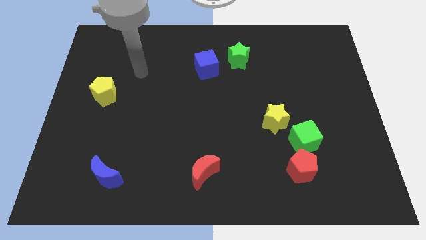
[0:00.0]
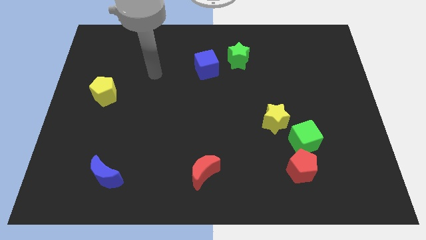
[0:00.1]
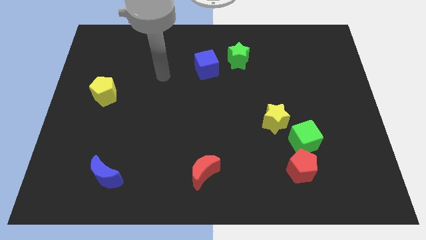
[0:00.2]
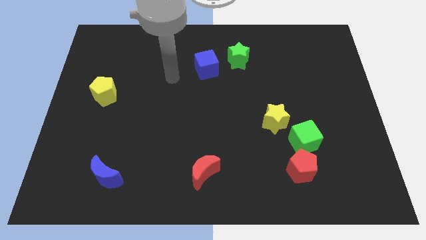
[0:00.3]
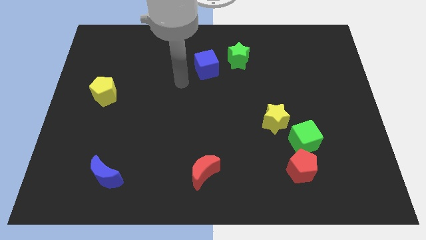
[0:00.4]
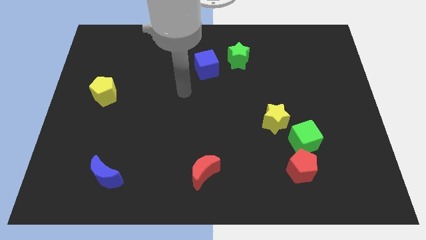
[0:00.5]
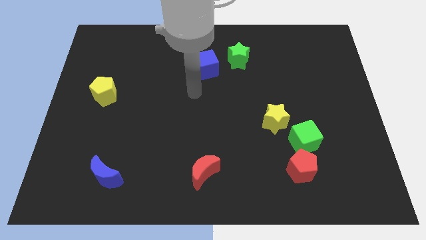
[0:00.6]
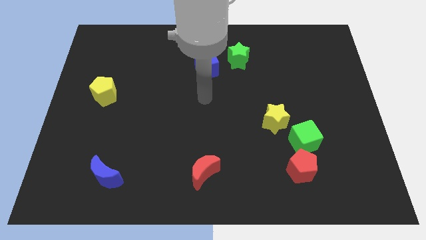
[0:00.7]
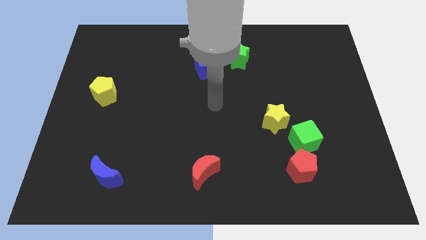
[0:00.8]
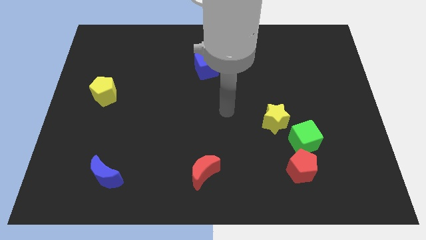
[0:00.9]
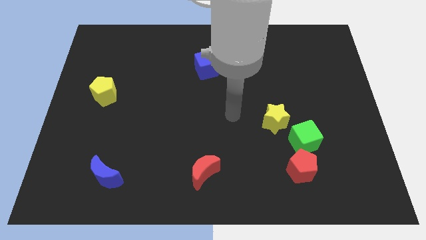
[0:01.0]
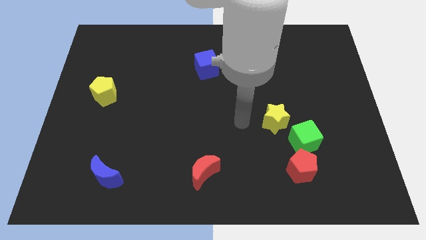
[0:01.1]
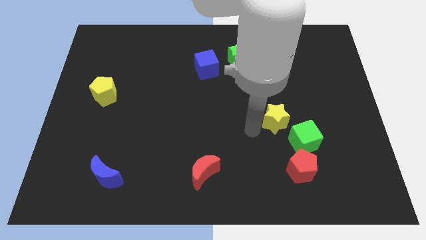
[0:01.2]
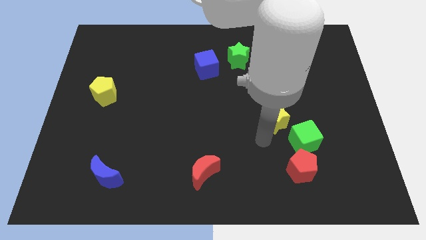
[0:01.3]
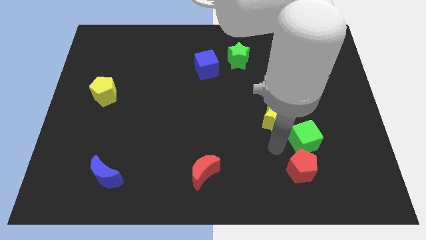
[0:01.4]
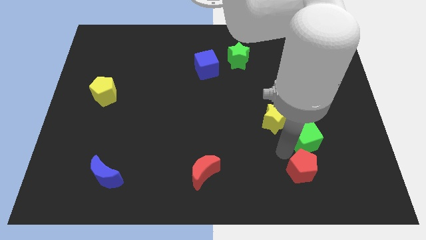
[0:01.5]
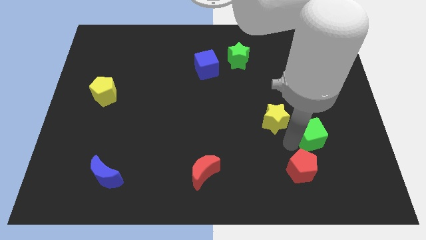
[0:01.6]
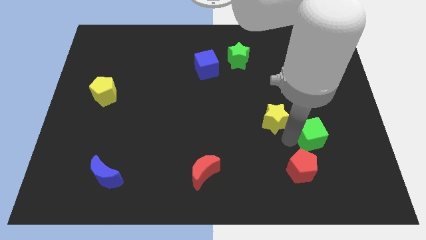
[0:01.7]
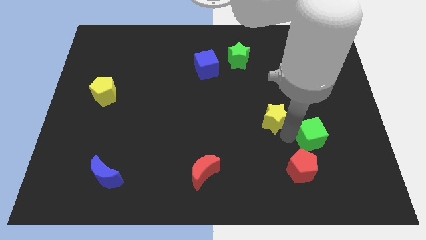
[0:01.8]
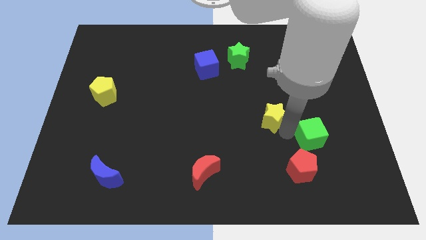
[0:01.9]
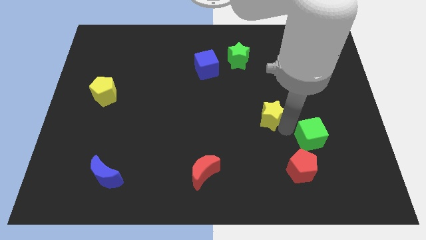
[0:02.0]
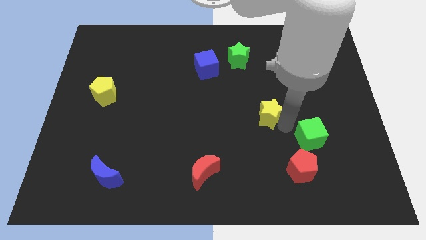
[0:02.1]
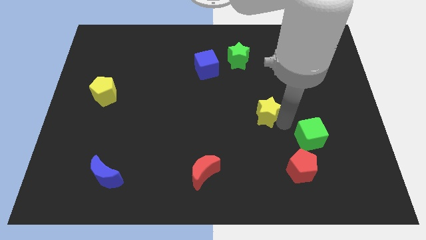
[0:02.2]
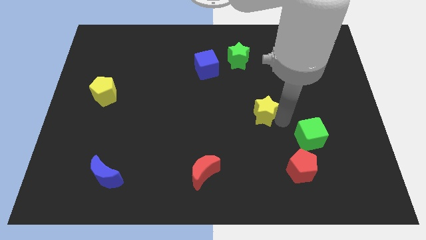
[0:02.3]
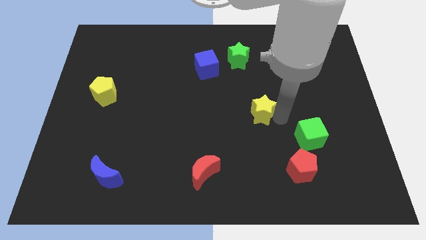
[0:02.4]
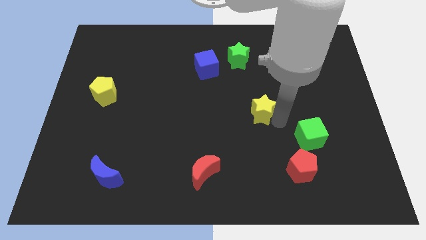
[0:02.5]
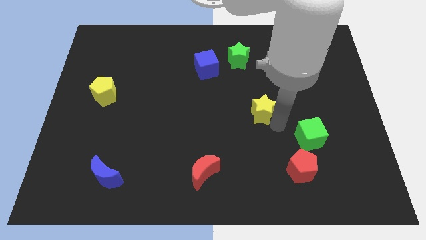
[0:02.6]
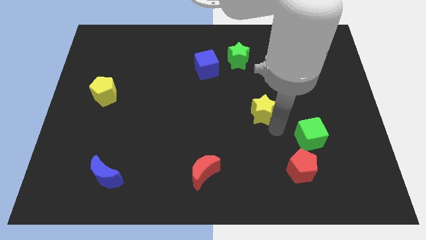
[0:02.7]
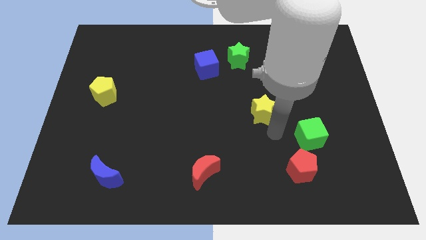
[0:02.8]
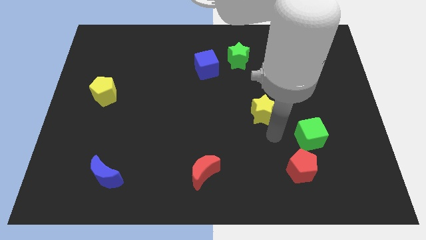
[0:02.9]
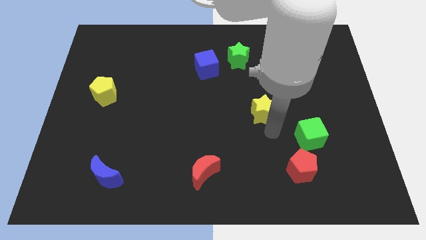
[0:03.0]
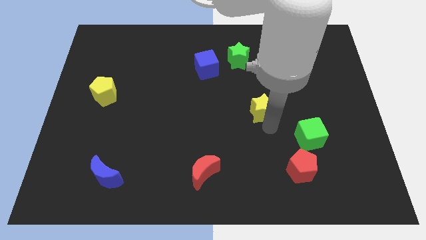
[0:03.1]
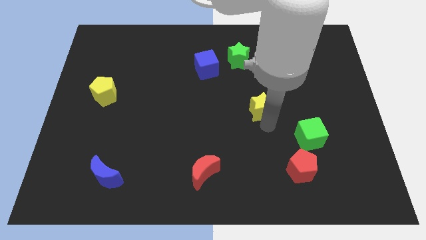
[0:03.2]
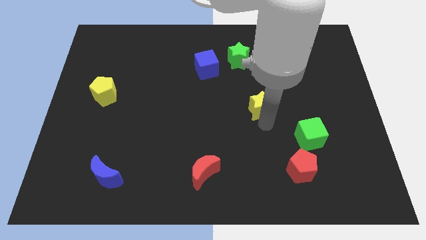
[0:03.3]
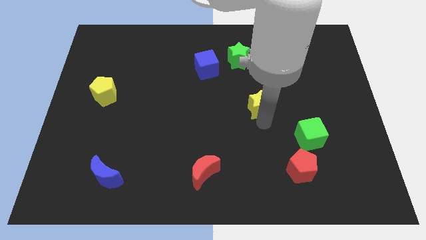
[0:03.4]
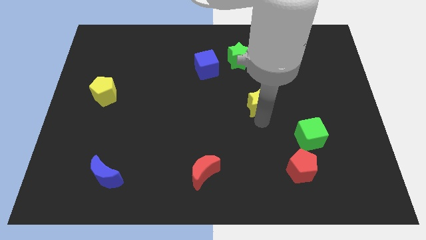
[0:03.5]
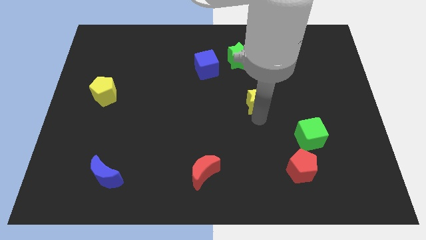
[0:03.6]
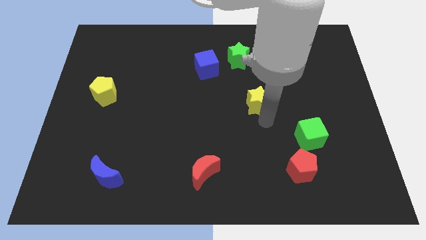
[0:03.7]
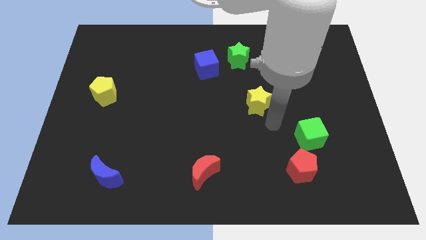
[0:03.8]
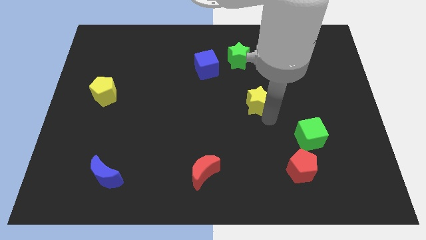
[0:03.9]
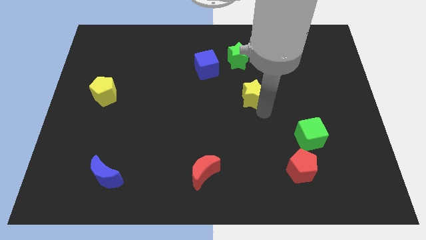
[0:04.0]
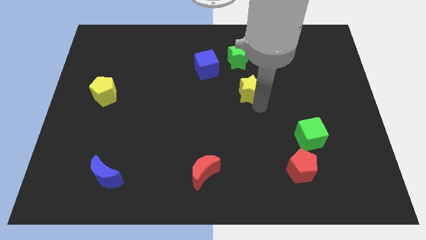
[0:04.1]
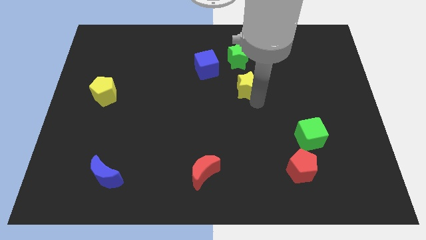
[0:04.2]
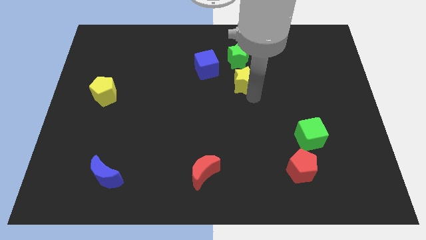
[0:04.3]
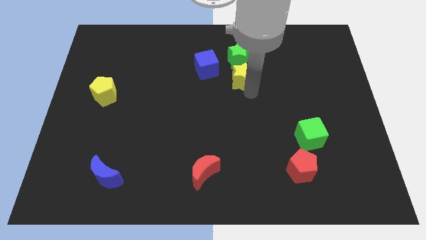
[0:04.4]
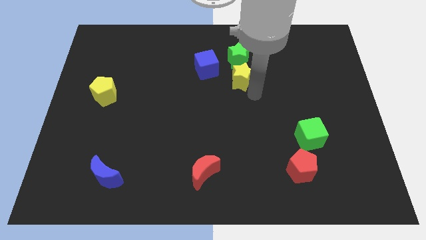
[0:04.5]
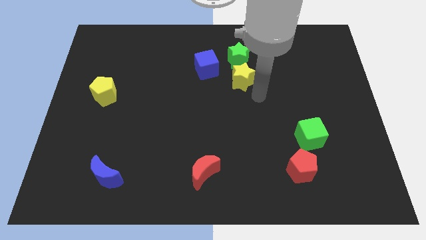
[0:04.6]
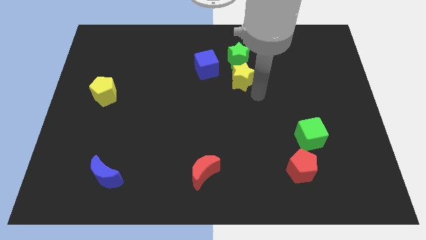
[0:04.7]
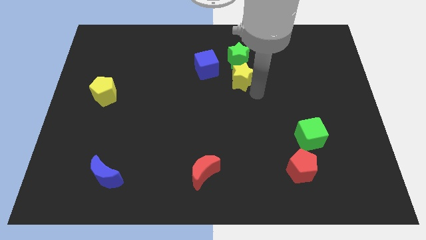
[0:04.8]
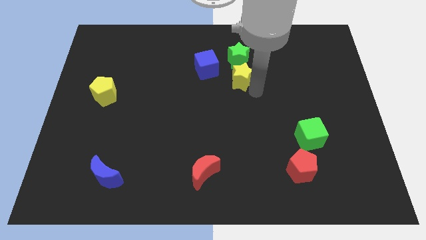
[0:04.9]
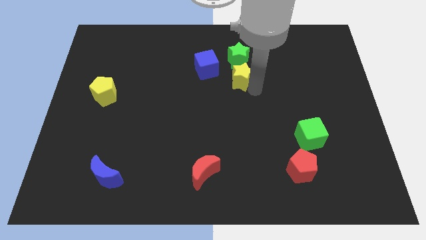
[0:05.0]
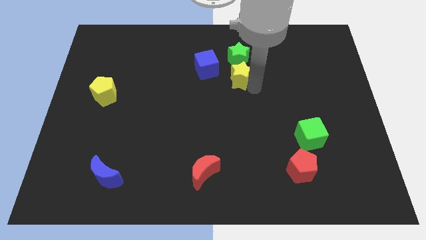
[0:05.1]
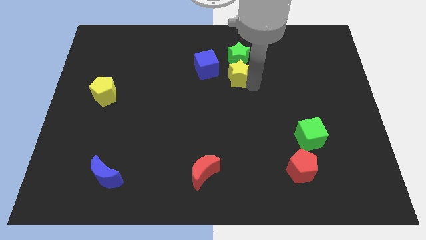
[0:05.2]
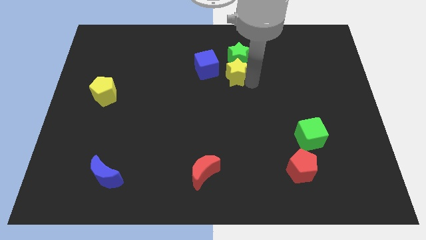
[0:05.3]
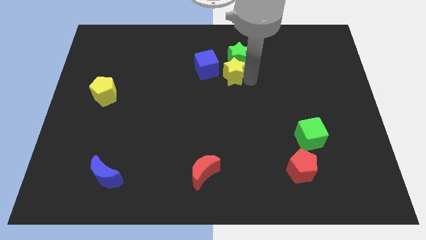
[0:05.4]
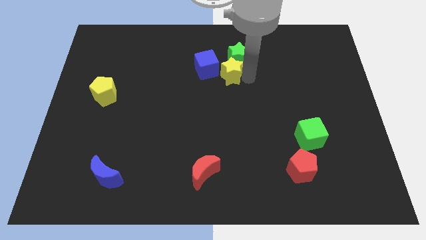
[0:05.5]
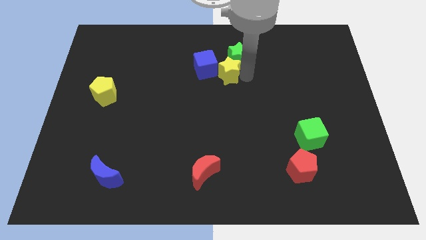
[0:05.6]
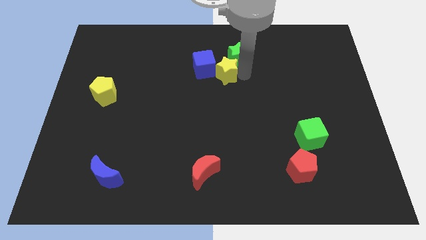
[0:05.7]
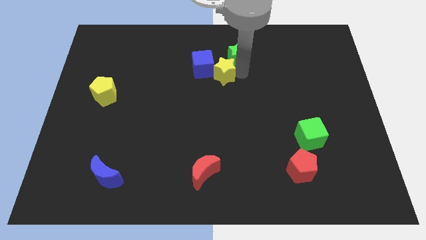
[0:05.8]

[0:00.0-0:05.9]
push the yellow star close to the blue cube
